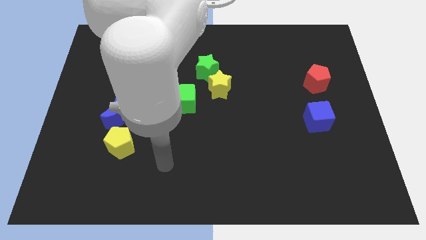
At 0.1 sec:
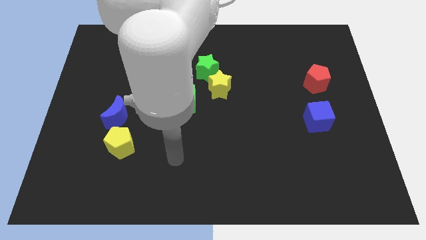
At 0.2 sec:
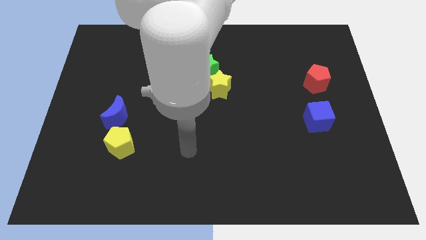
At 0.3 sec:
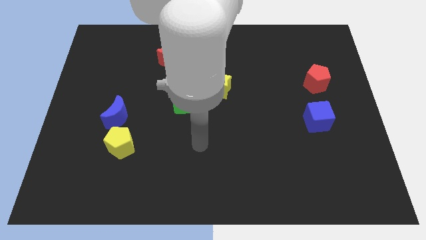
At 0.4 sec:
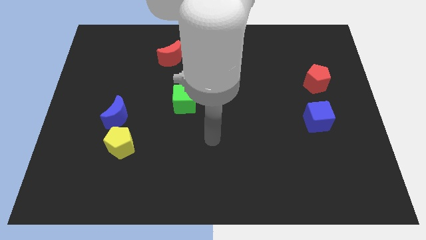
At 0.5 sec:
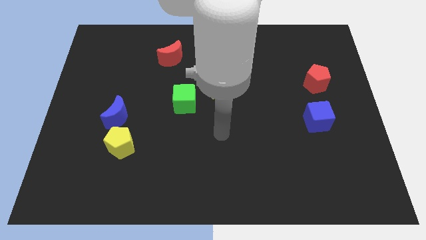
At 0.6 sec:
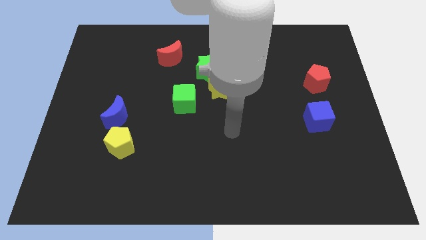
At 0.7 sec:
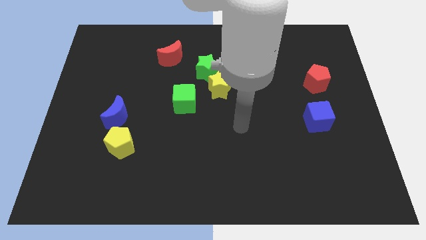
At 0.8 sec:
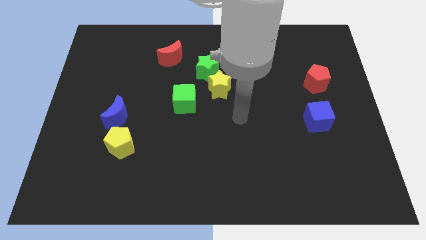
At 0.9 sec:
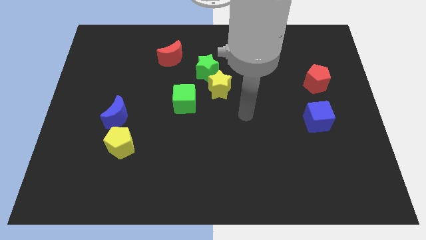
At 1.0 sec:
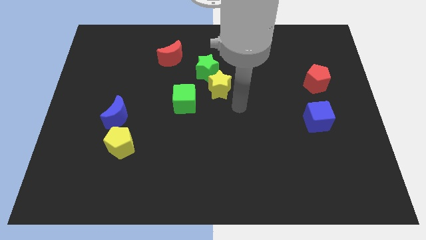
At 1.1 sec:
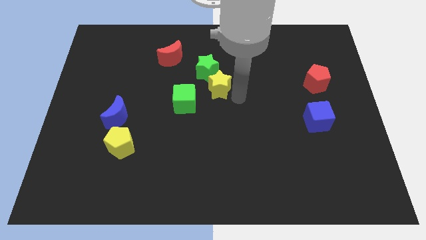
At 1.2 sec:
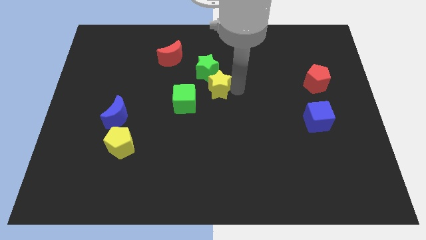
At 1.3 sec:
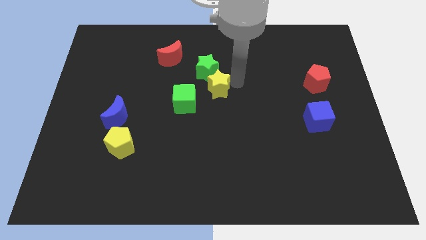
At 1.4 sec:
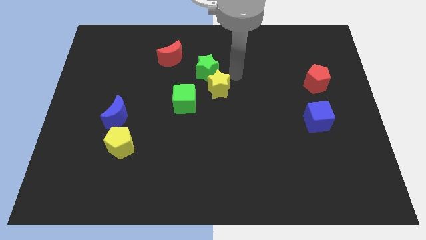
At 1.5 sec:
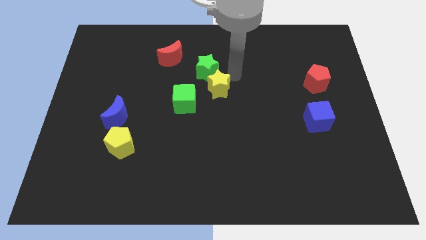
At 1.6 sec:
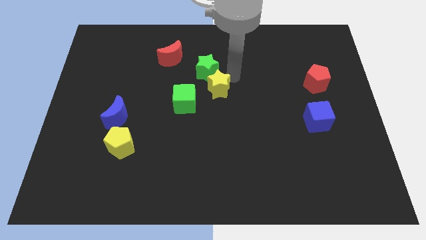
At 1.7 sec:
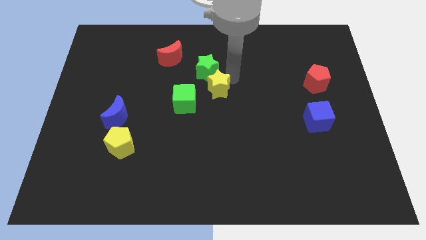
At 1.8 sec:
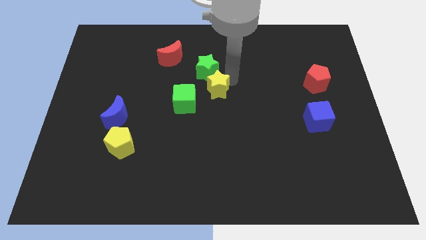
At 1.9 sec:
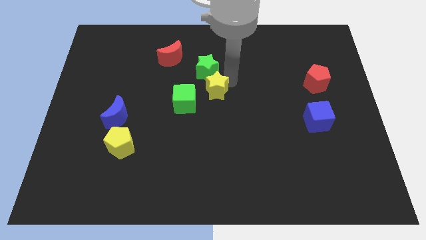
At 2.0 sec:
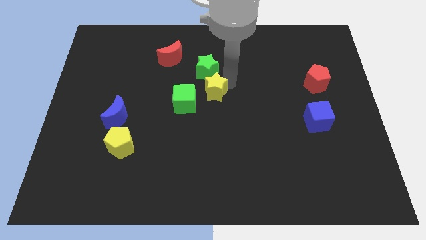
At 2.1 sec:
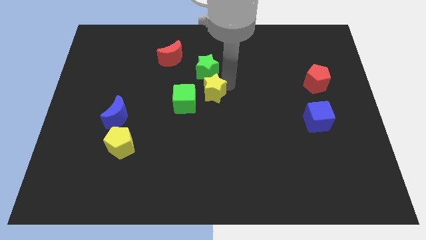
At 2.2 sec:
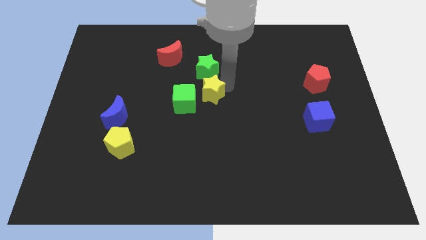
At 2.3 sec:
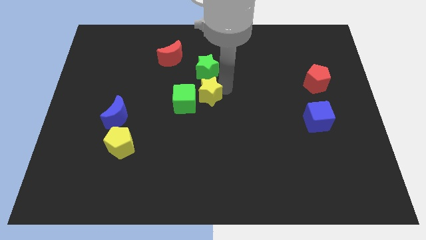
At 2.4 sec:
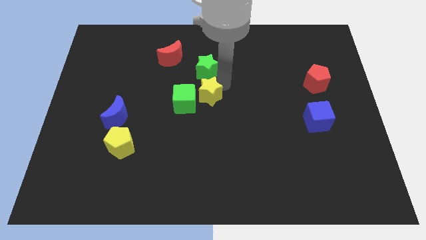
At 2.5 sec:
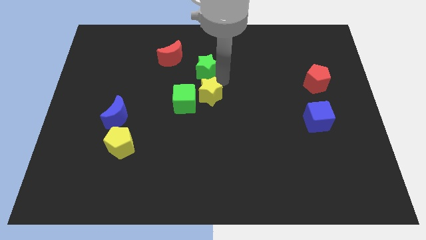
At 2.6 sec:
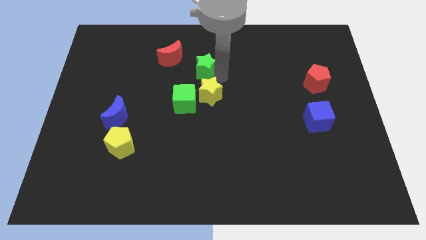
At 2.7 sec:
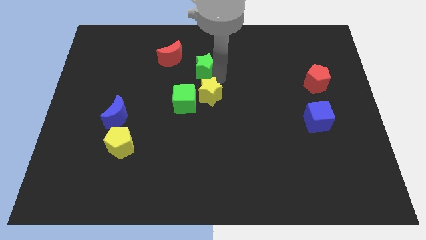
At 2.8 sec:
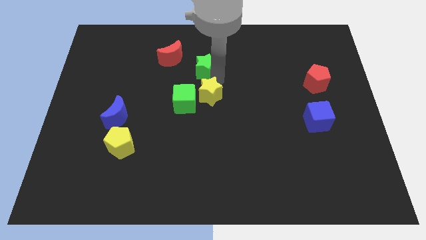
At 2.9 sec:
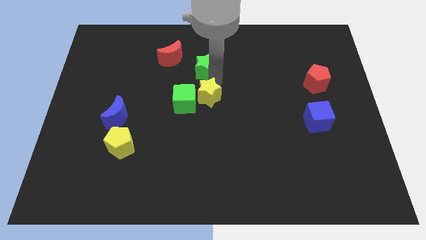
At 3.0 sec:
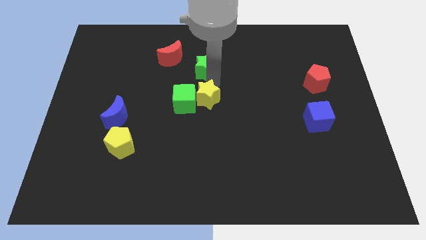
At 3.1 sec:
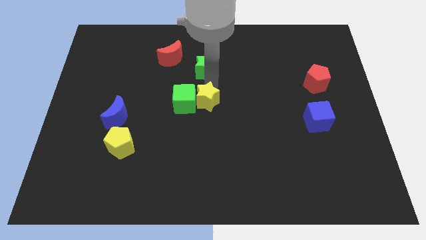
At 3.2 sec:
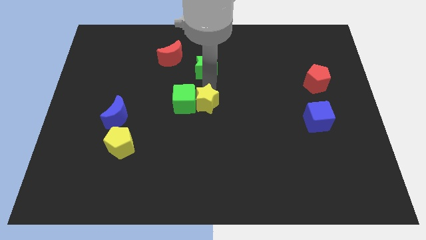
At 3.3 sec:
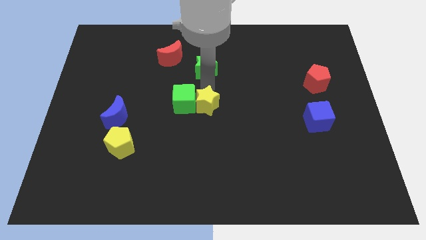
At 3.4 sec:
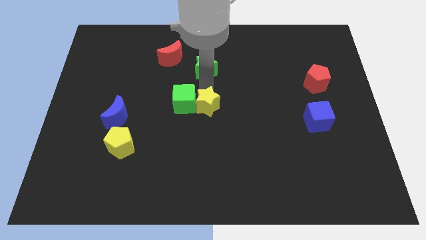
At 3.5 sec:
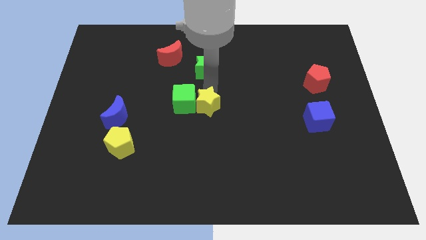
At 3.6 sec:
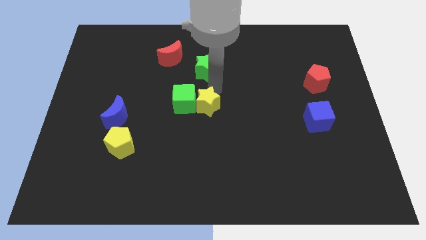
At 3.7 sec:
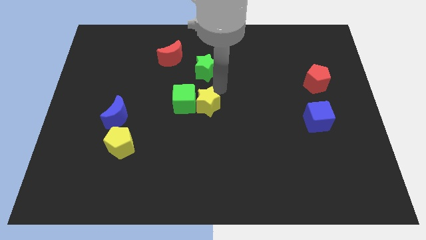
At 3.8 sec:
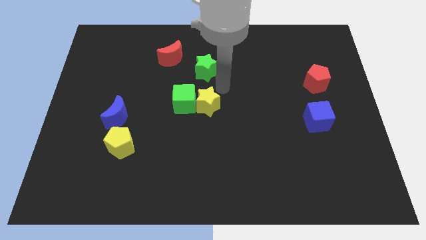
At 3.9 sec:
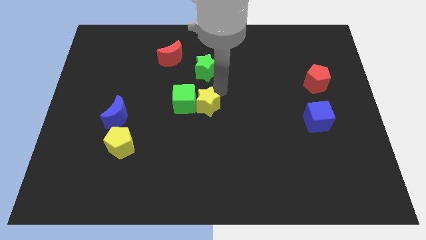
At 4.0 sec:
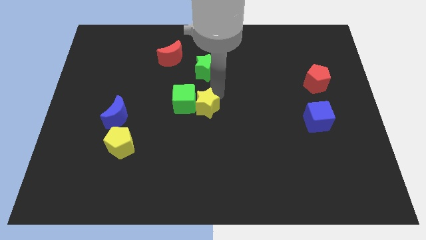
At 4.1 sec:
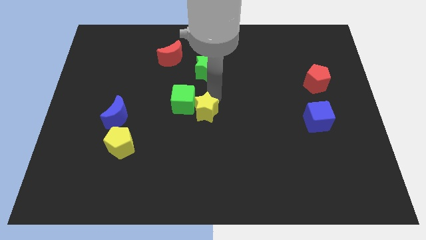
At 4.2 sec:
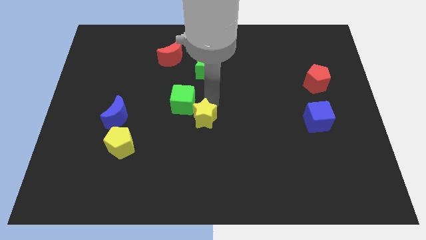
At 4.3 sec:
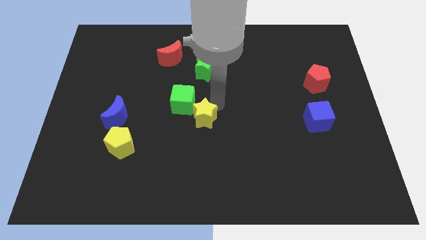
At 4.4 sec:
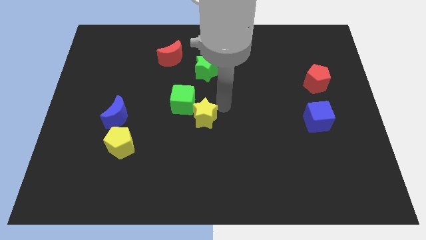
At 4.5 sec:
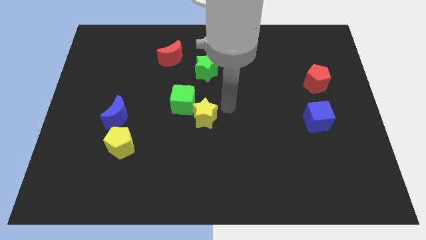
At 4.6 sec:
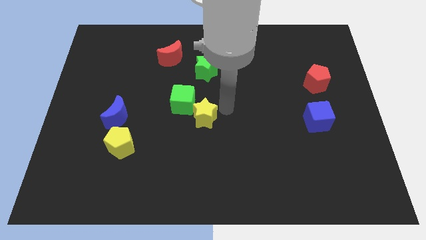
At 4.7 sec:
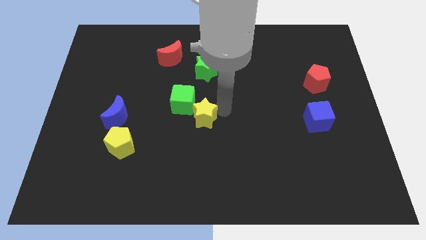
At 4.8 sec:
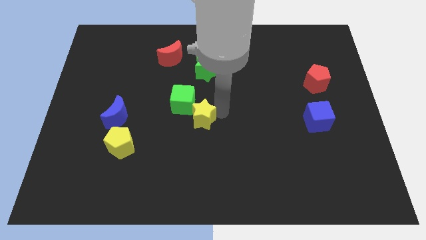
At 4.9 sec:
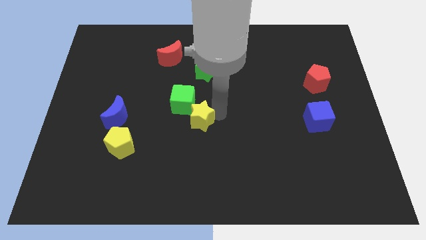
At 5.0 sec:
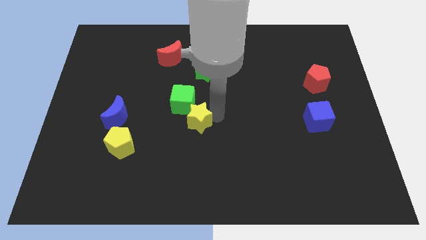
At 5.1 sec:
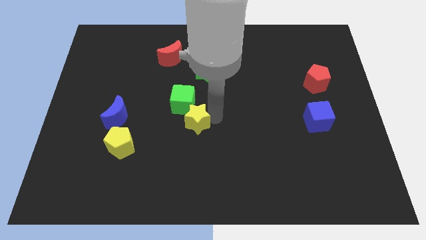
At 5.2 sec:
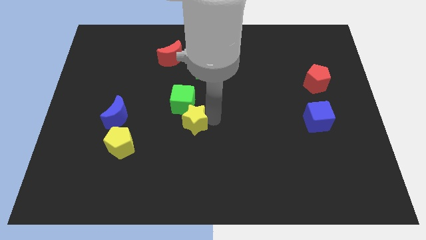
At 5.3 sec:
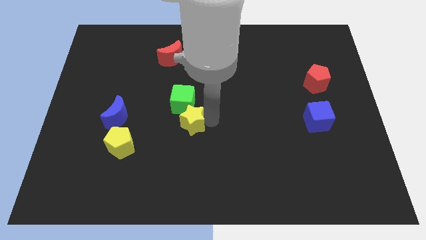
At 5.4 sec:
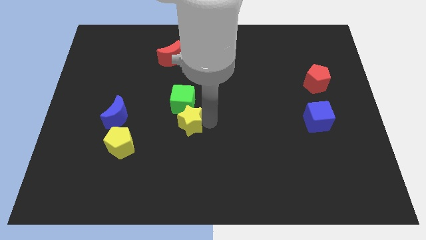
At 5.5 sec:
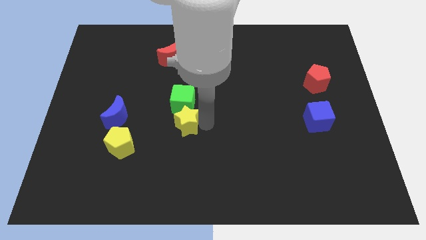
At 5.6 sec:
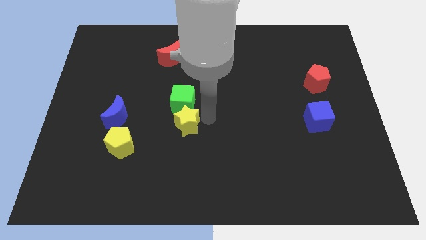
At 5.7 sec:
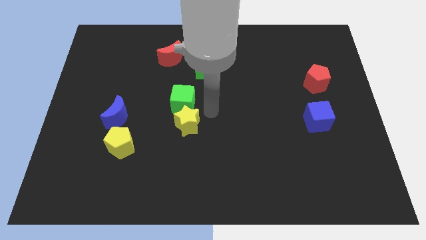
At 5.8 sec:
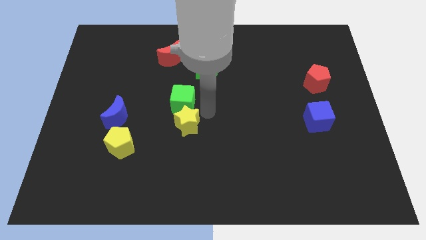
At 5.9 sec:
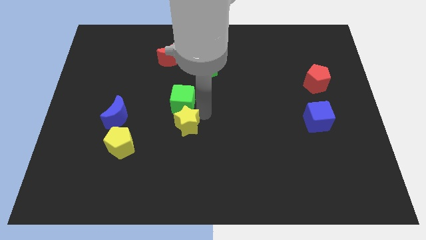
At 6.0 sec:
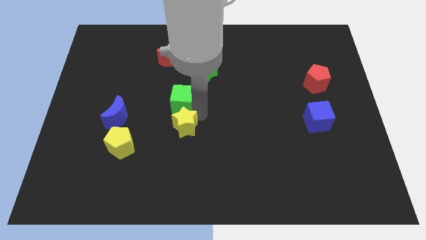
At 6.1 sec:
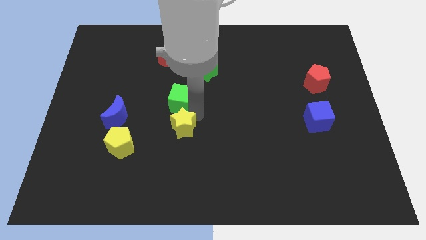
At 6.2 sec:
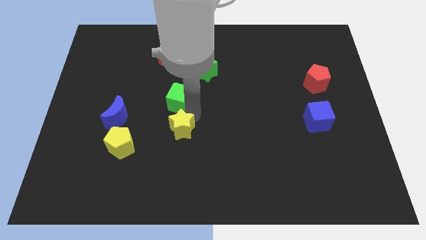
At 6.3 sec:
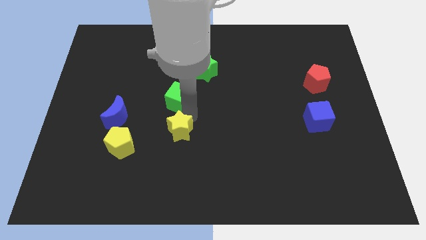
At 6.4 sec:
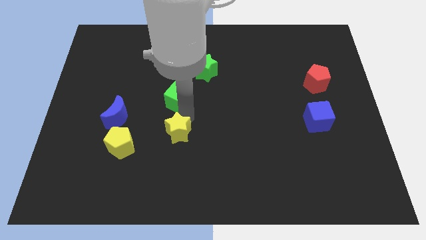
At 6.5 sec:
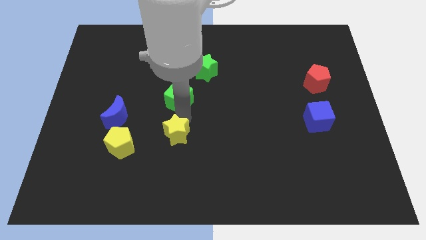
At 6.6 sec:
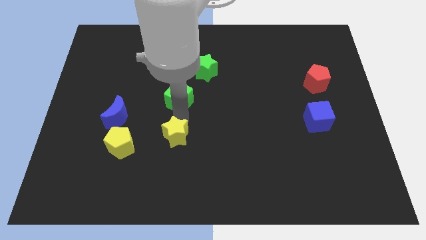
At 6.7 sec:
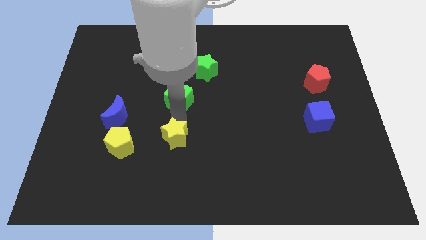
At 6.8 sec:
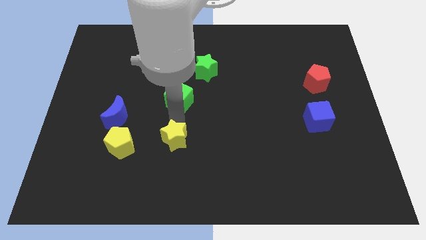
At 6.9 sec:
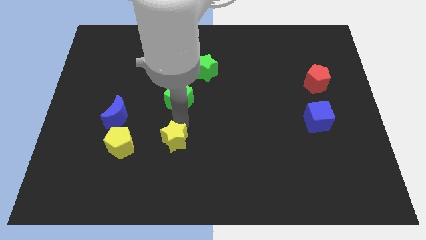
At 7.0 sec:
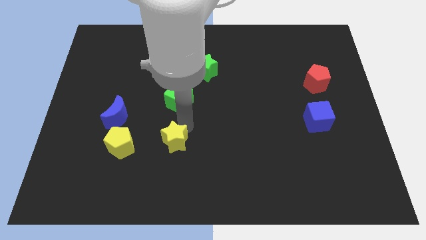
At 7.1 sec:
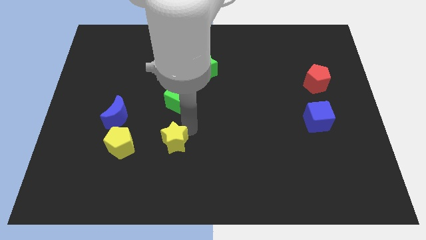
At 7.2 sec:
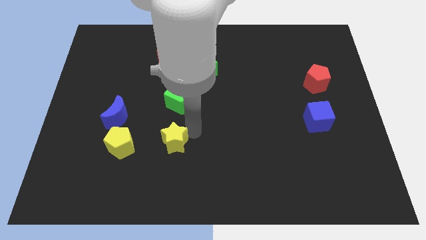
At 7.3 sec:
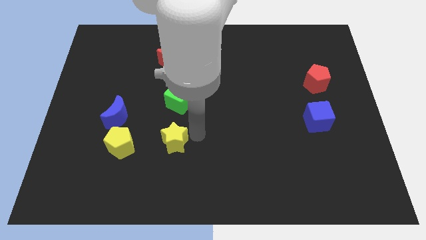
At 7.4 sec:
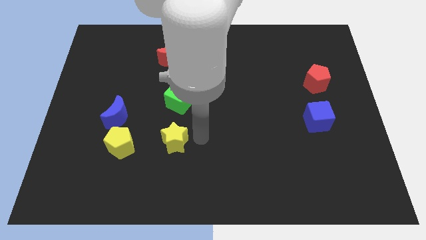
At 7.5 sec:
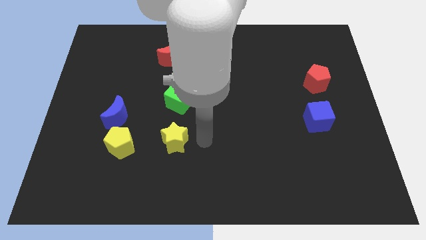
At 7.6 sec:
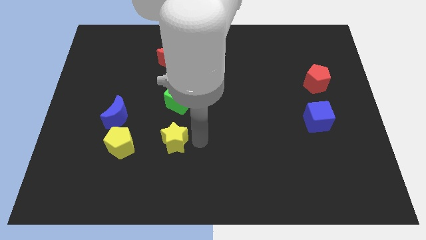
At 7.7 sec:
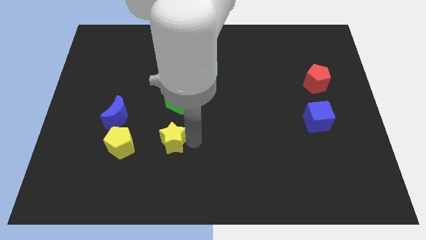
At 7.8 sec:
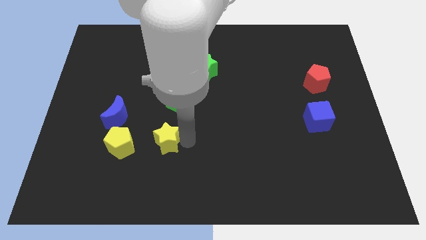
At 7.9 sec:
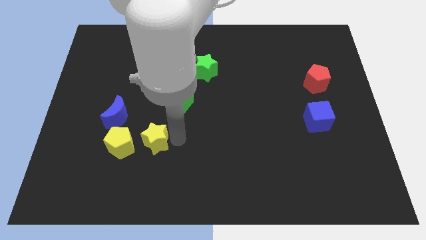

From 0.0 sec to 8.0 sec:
move the yellow star downwards and to the left
